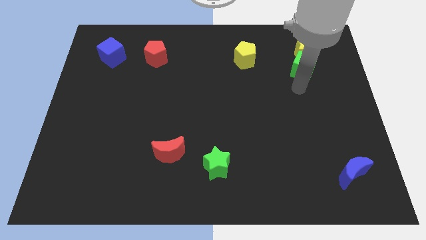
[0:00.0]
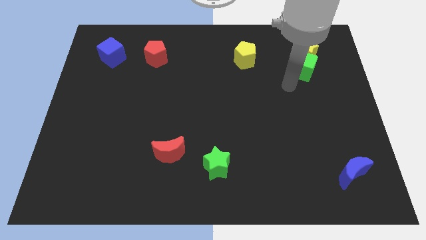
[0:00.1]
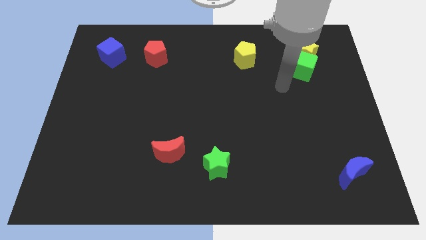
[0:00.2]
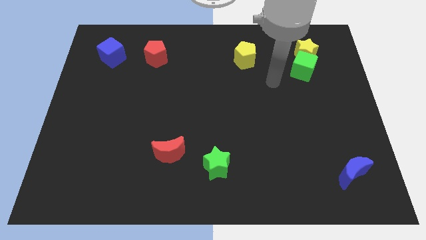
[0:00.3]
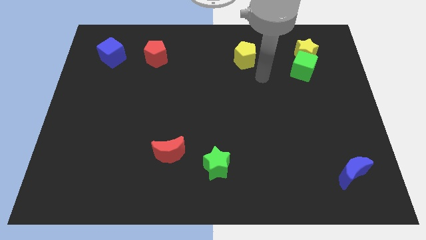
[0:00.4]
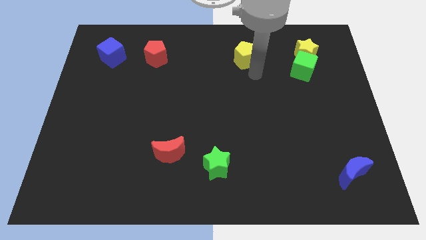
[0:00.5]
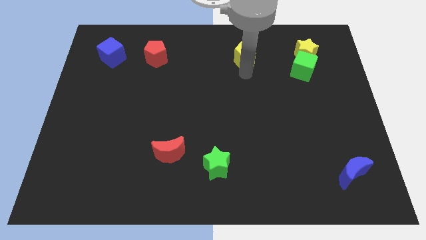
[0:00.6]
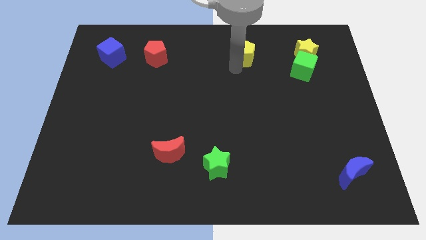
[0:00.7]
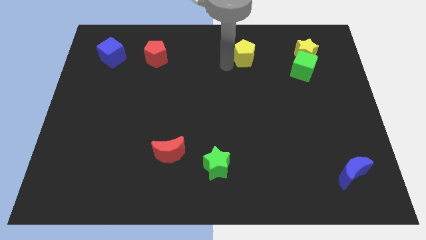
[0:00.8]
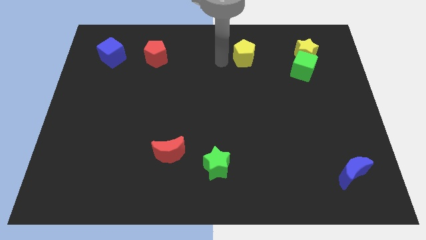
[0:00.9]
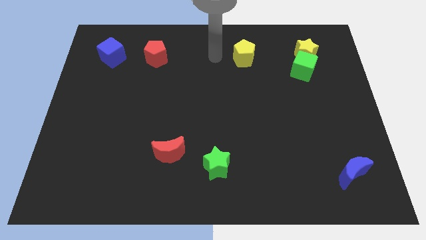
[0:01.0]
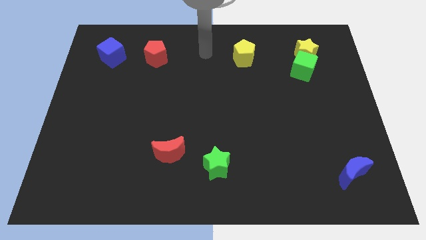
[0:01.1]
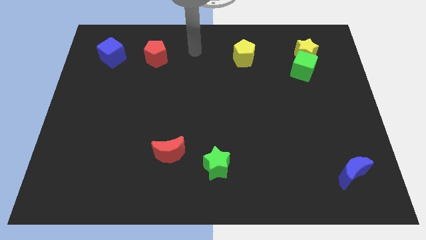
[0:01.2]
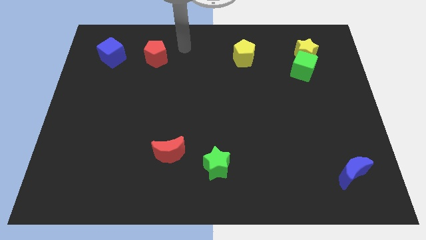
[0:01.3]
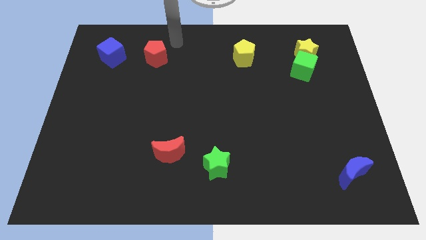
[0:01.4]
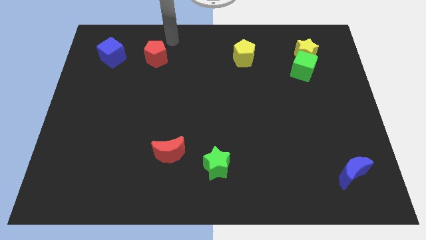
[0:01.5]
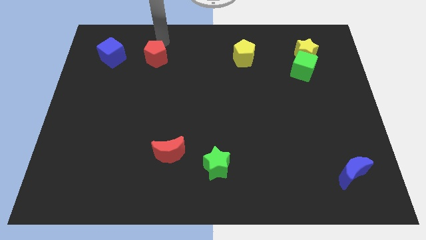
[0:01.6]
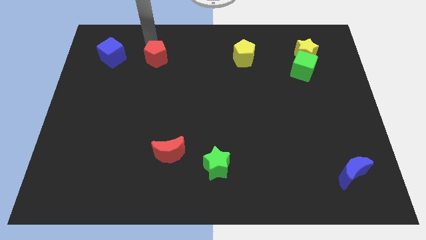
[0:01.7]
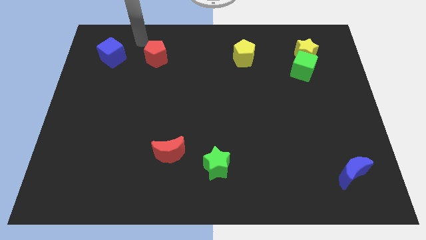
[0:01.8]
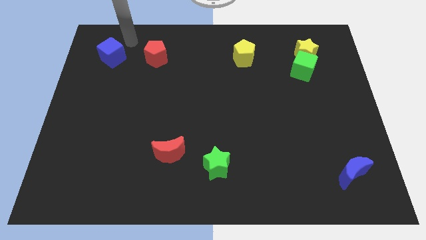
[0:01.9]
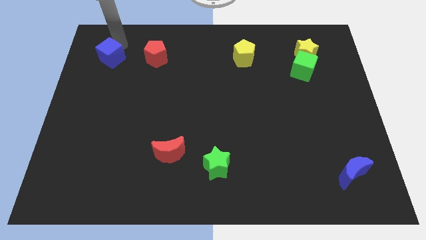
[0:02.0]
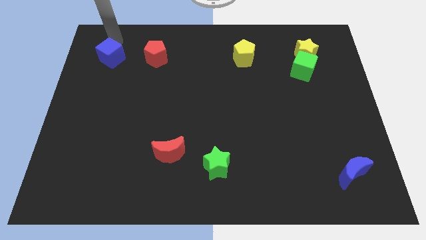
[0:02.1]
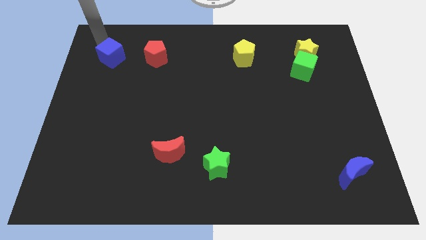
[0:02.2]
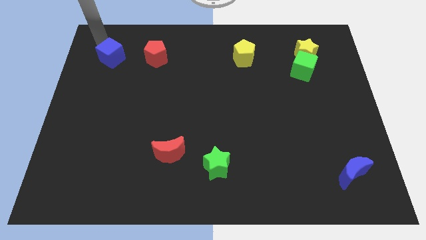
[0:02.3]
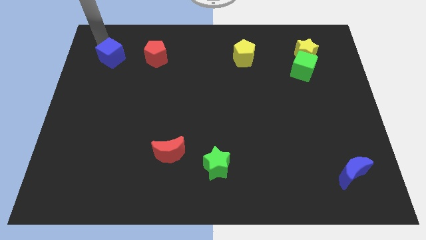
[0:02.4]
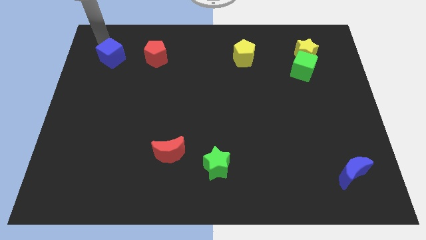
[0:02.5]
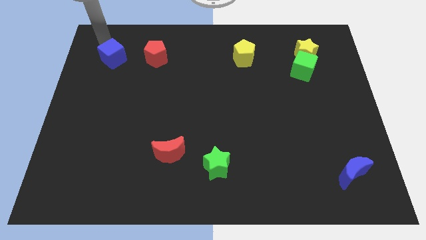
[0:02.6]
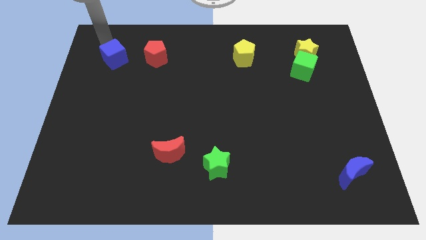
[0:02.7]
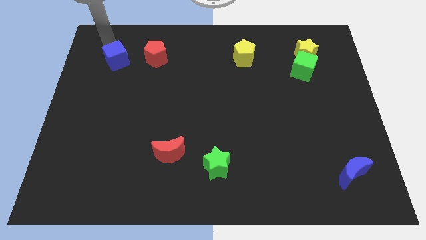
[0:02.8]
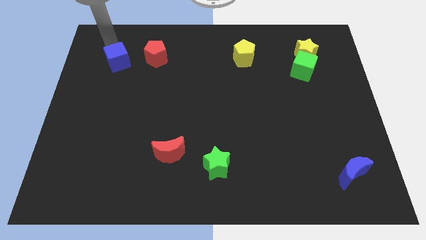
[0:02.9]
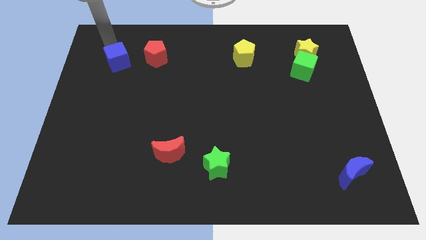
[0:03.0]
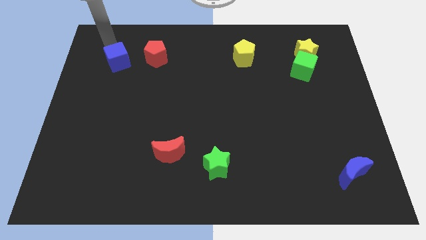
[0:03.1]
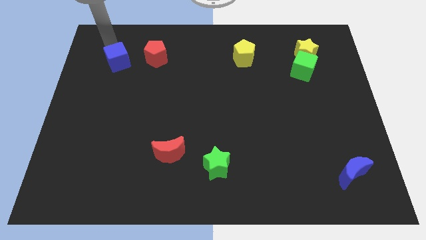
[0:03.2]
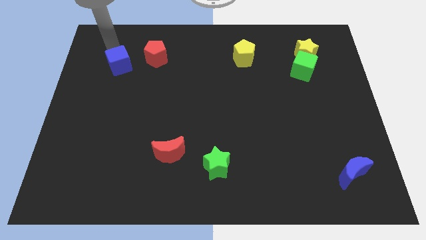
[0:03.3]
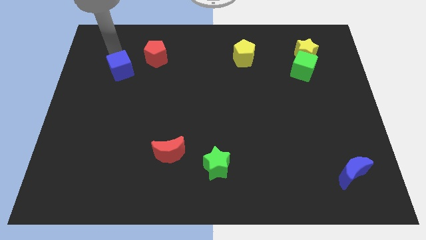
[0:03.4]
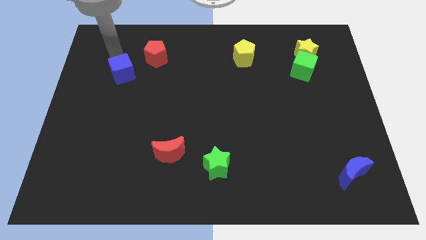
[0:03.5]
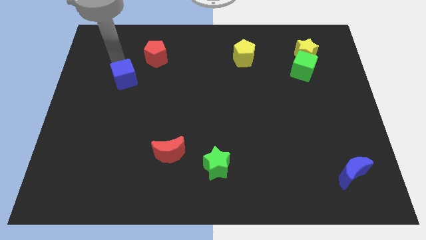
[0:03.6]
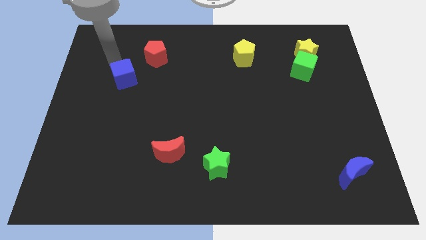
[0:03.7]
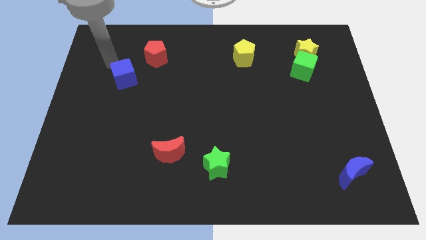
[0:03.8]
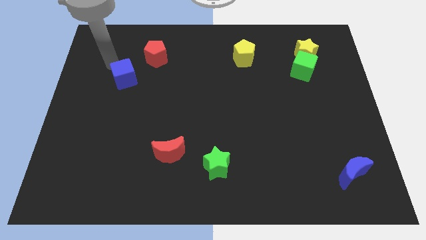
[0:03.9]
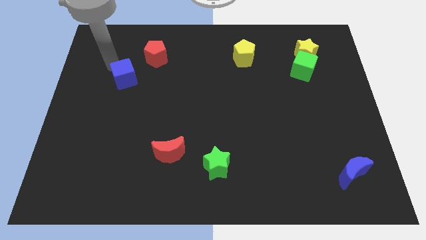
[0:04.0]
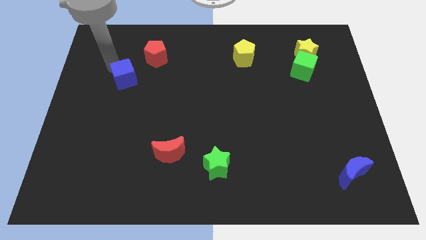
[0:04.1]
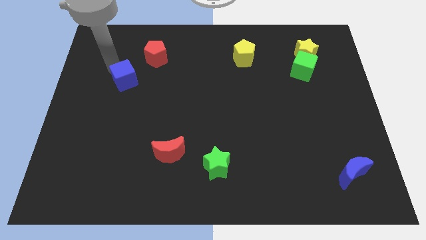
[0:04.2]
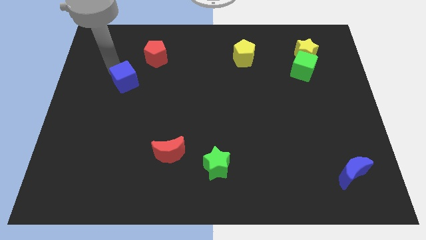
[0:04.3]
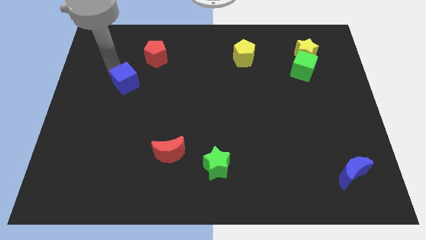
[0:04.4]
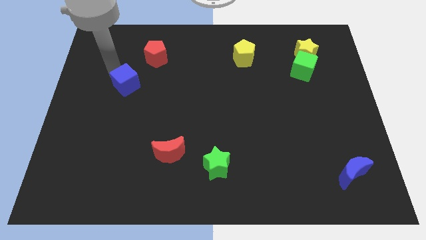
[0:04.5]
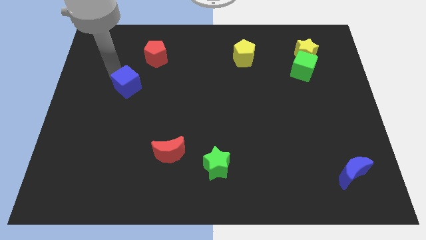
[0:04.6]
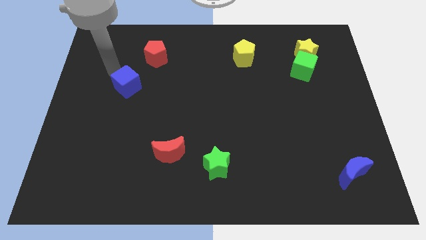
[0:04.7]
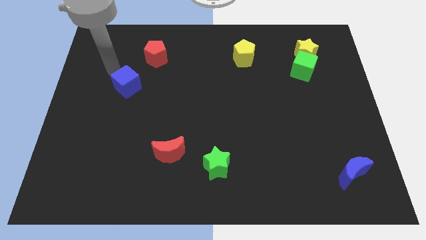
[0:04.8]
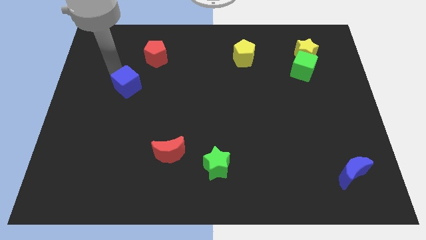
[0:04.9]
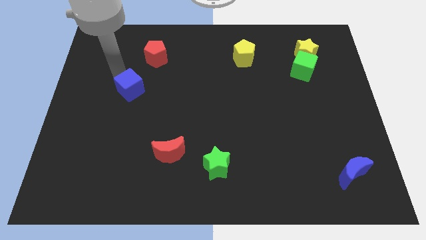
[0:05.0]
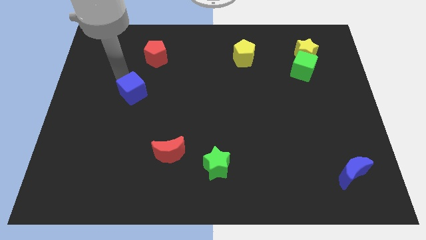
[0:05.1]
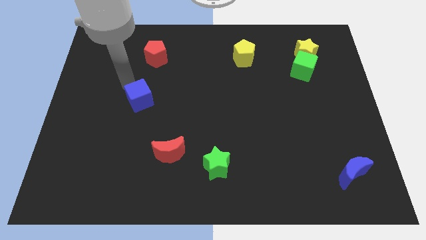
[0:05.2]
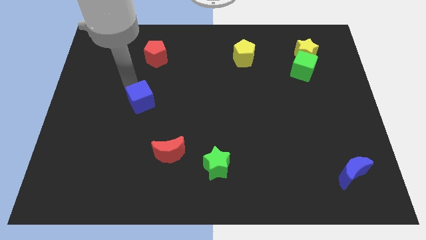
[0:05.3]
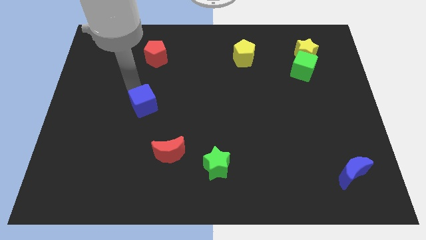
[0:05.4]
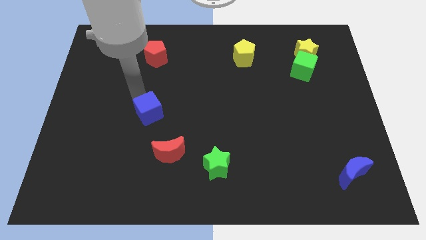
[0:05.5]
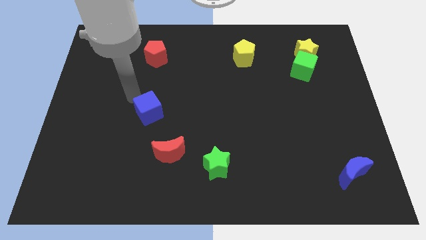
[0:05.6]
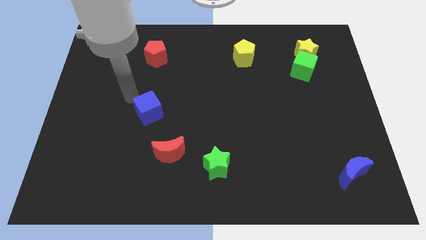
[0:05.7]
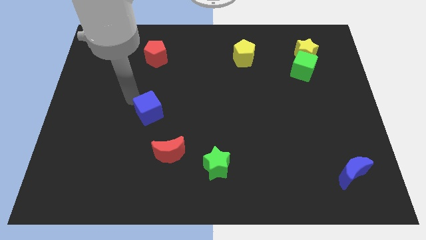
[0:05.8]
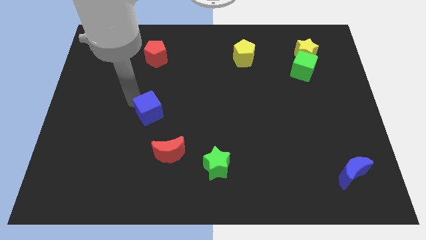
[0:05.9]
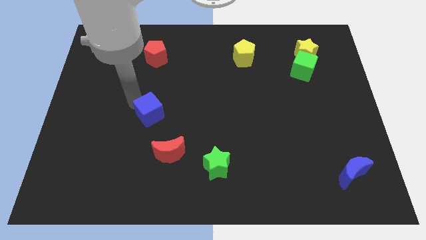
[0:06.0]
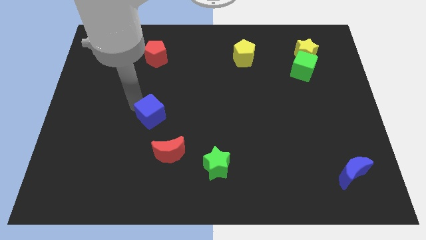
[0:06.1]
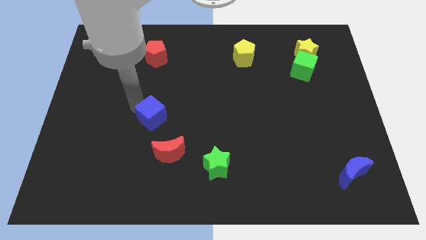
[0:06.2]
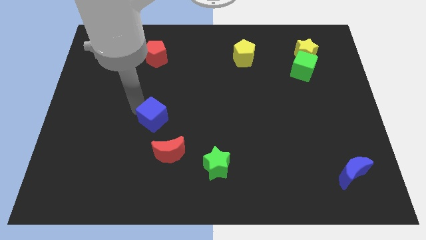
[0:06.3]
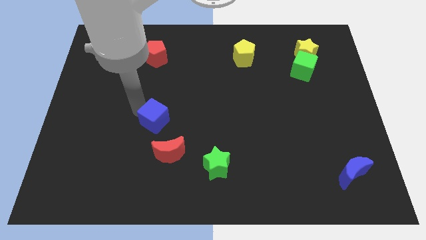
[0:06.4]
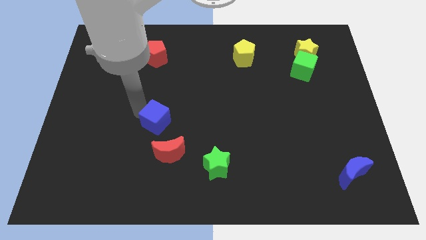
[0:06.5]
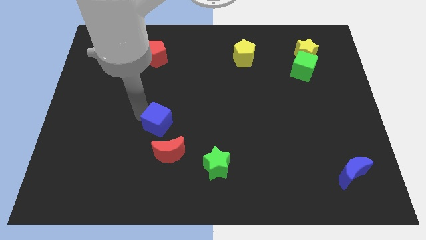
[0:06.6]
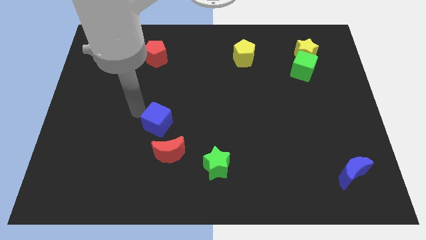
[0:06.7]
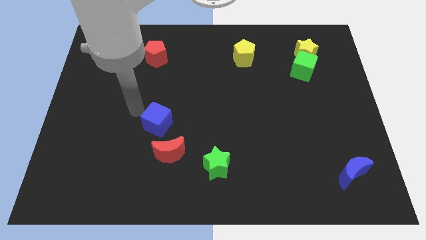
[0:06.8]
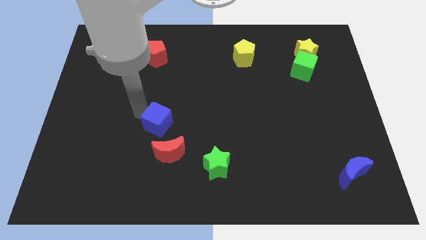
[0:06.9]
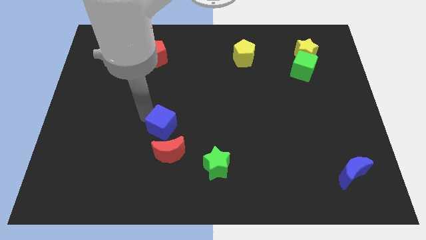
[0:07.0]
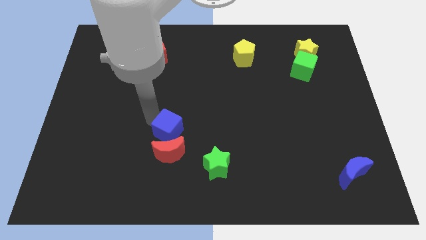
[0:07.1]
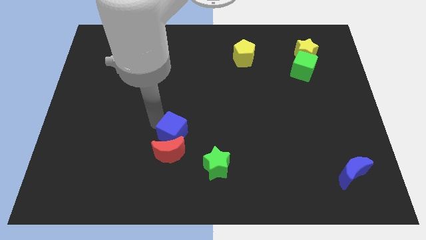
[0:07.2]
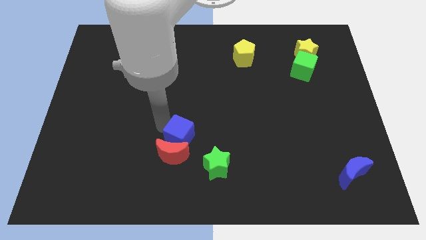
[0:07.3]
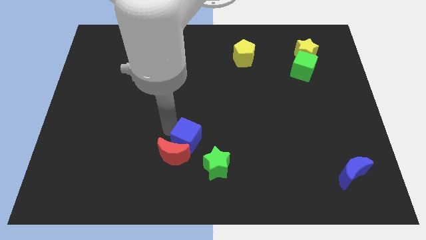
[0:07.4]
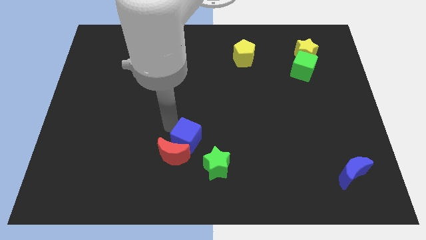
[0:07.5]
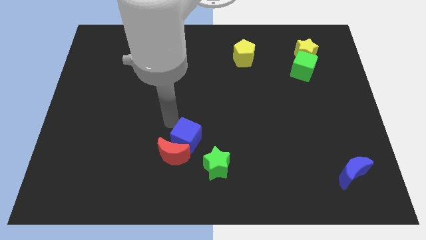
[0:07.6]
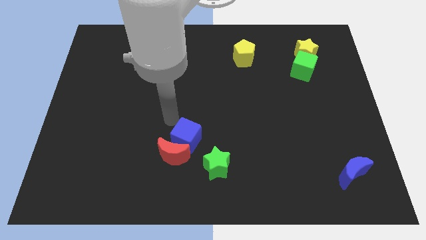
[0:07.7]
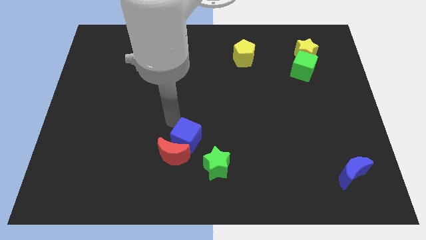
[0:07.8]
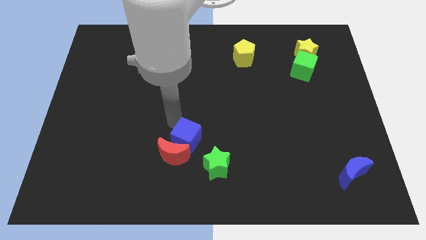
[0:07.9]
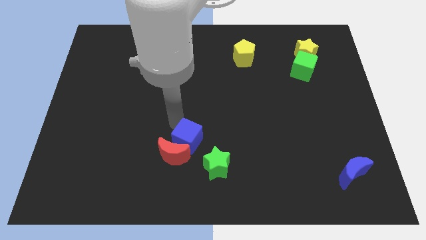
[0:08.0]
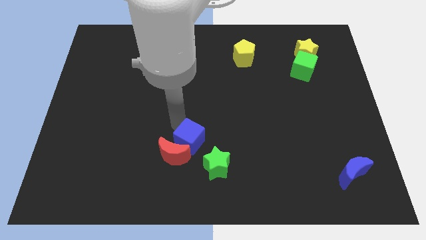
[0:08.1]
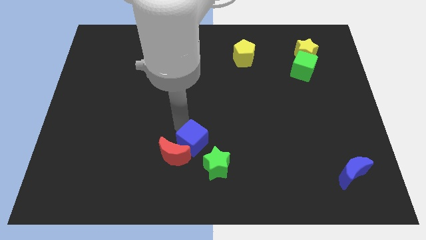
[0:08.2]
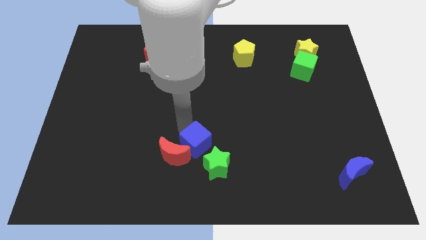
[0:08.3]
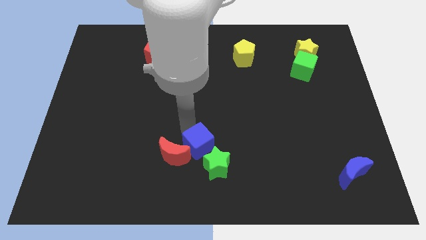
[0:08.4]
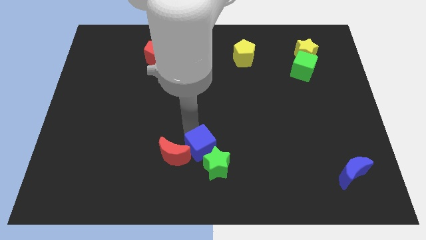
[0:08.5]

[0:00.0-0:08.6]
push the blue cube towards the green star
